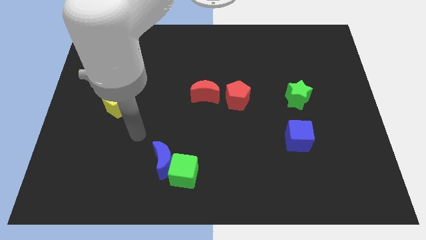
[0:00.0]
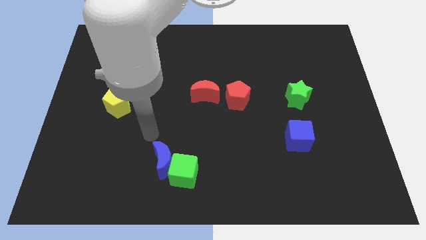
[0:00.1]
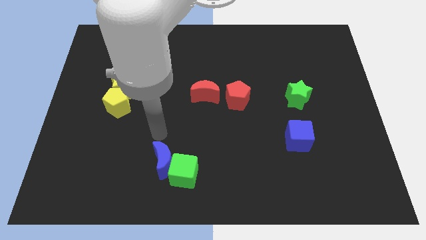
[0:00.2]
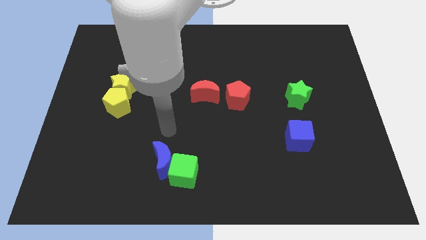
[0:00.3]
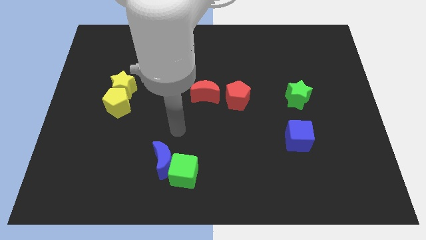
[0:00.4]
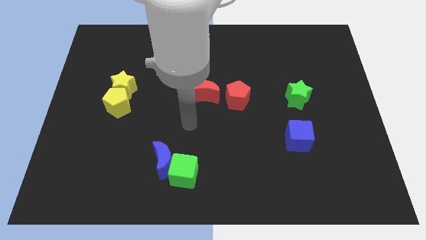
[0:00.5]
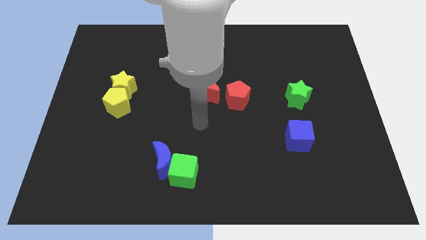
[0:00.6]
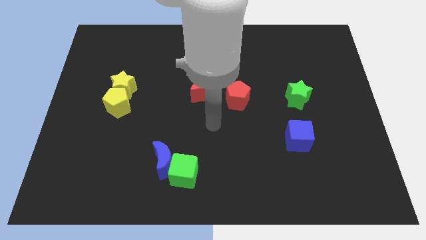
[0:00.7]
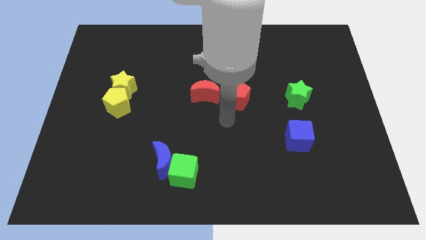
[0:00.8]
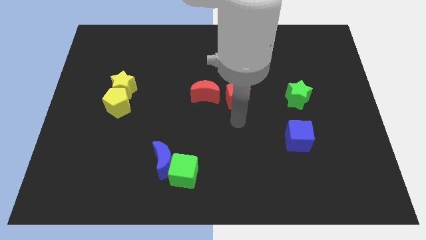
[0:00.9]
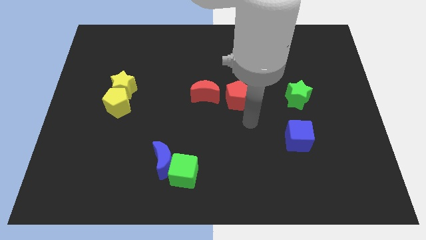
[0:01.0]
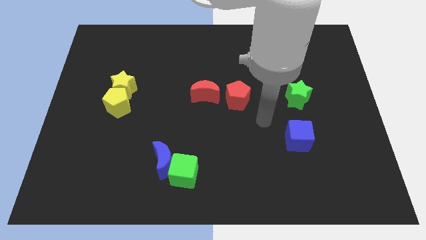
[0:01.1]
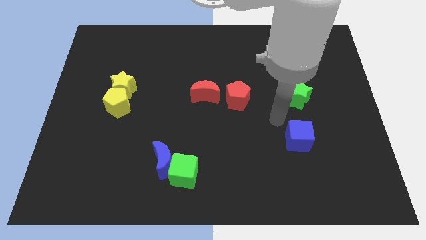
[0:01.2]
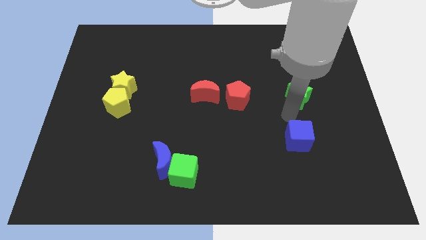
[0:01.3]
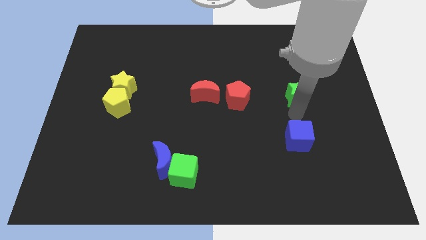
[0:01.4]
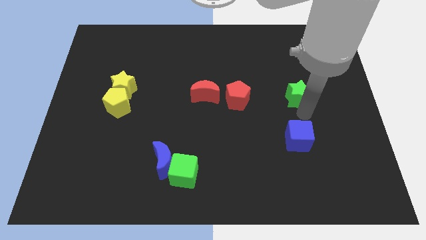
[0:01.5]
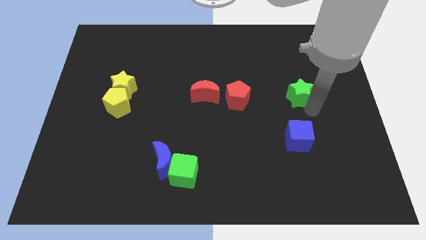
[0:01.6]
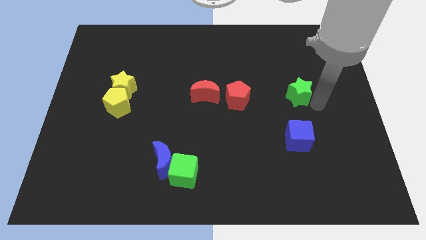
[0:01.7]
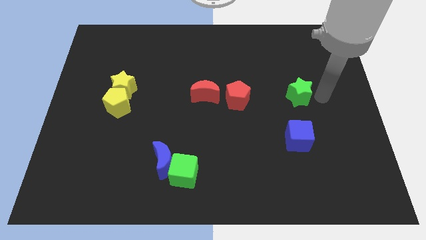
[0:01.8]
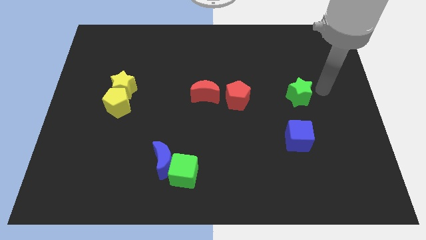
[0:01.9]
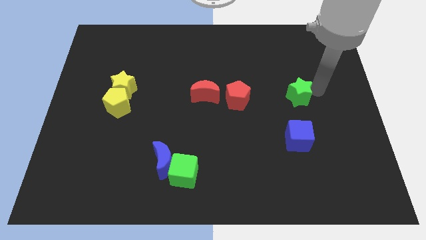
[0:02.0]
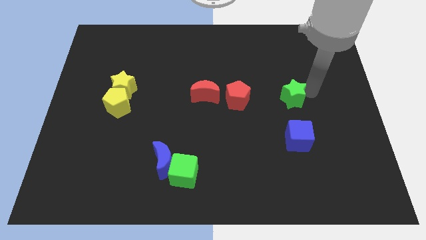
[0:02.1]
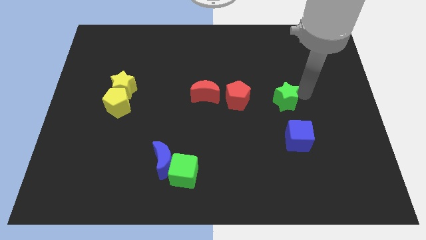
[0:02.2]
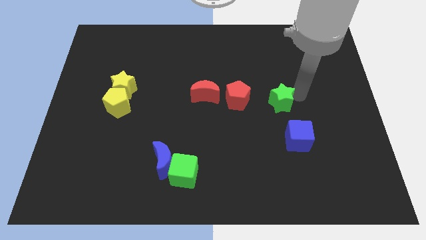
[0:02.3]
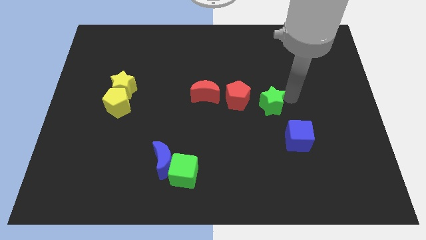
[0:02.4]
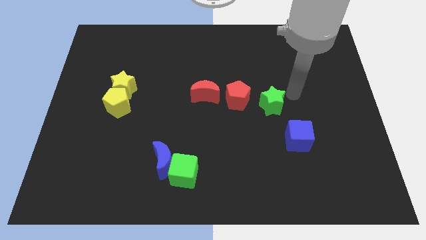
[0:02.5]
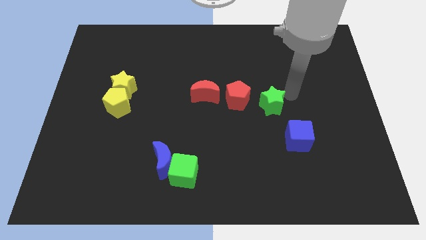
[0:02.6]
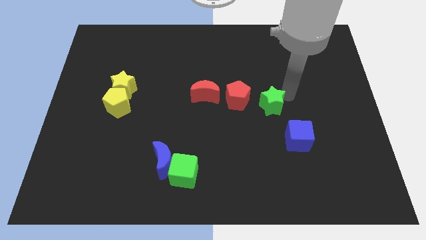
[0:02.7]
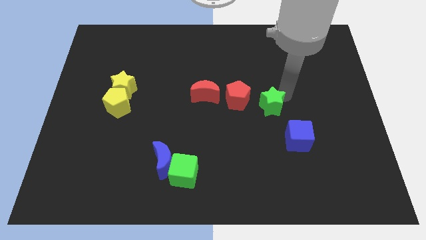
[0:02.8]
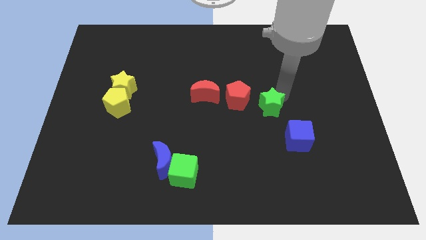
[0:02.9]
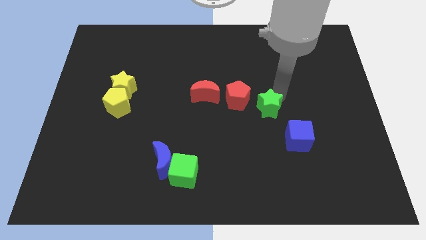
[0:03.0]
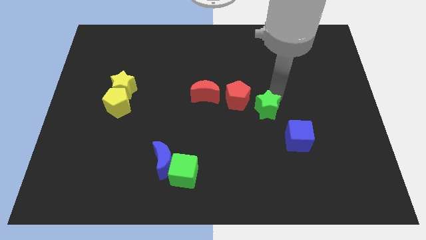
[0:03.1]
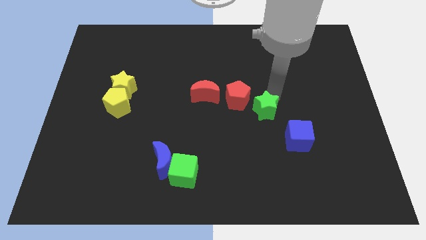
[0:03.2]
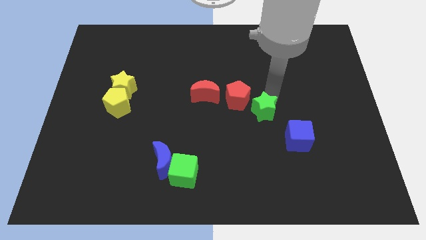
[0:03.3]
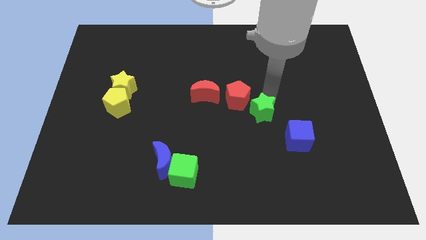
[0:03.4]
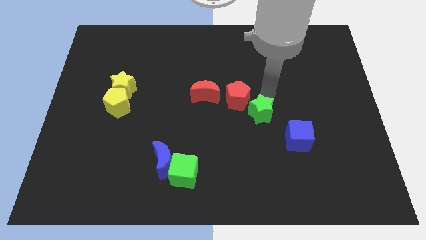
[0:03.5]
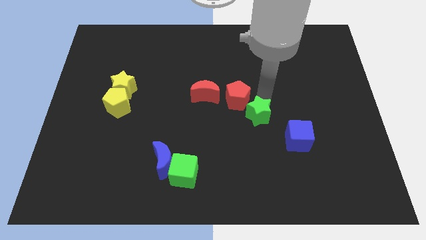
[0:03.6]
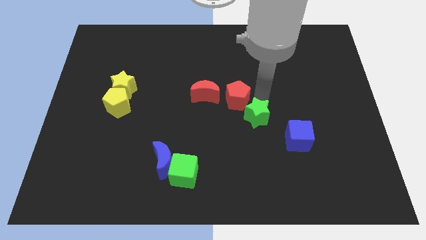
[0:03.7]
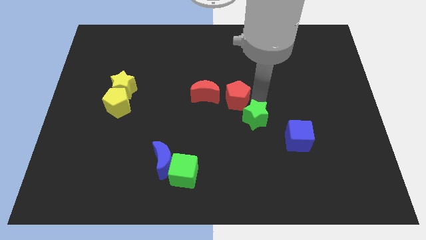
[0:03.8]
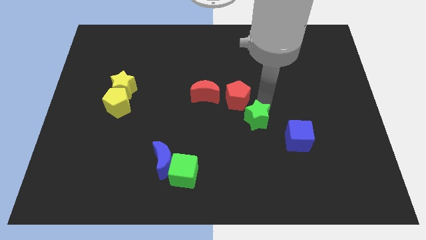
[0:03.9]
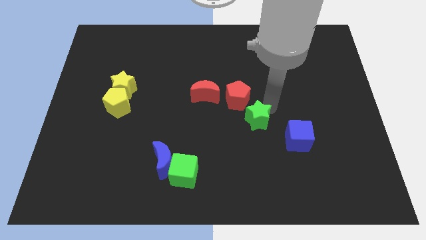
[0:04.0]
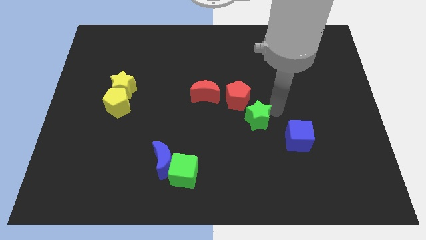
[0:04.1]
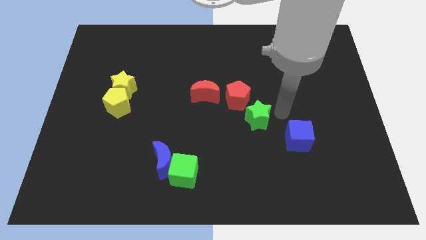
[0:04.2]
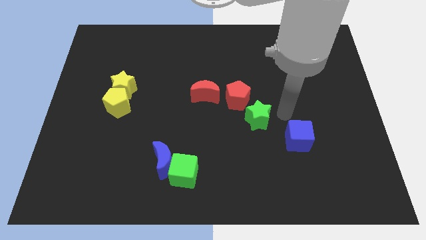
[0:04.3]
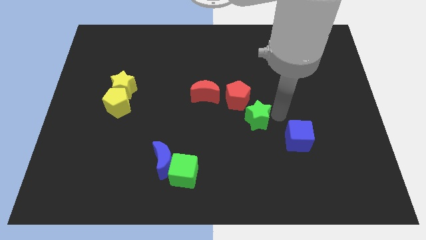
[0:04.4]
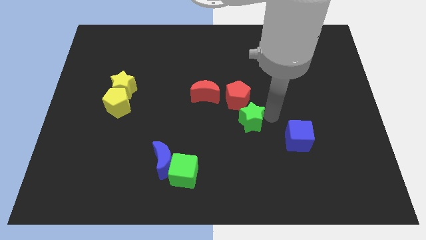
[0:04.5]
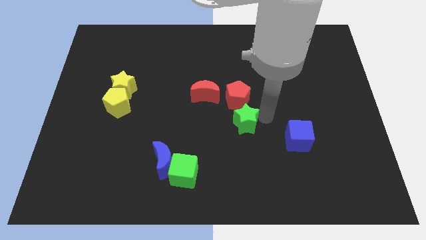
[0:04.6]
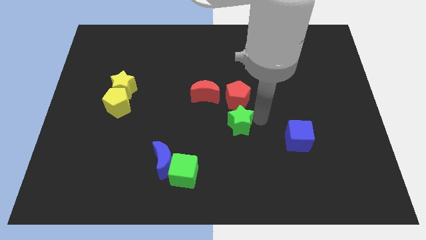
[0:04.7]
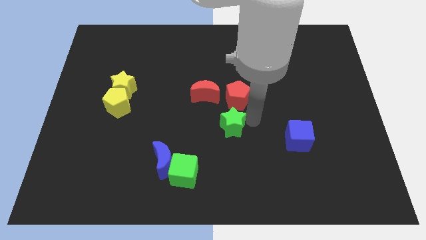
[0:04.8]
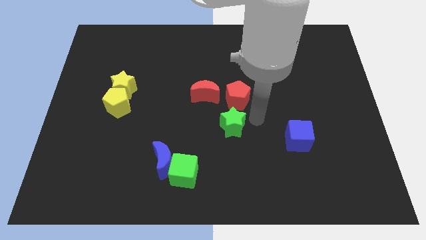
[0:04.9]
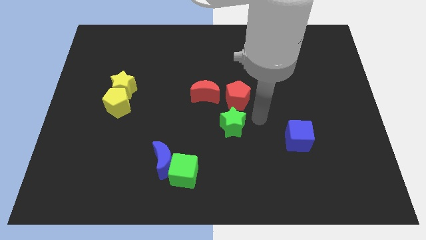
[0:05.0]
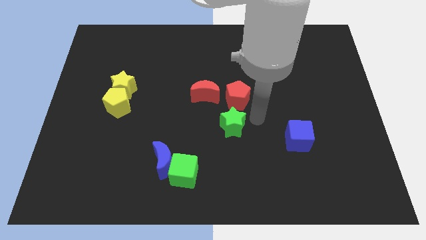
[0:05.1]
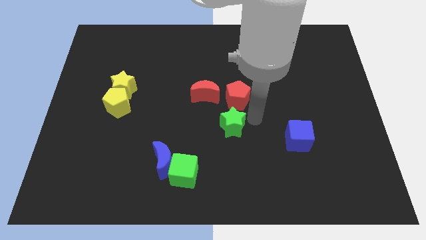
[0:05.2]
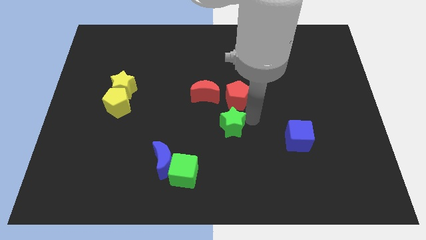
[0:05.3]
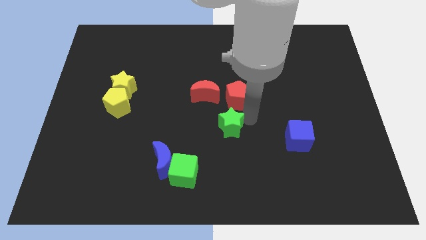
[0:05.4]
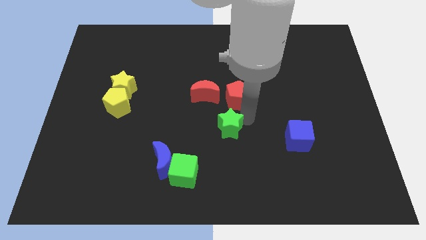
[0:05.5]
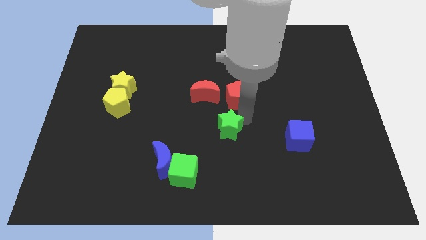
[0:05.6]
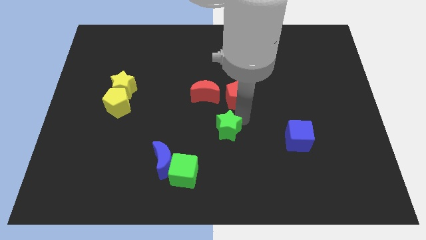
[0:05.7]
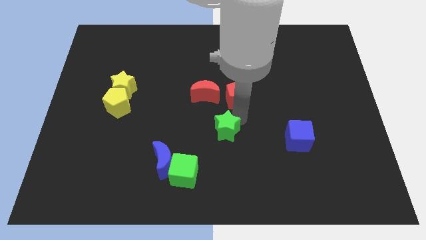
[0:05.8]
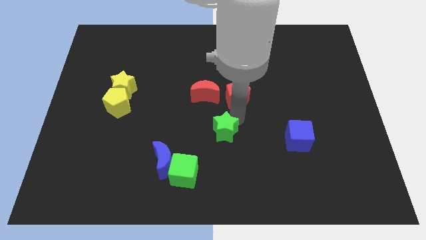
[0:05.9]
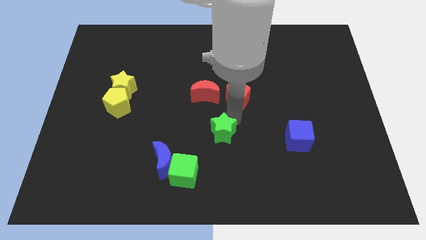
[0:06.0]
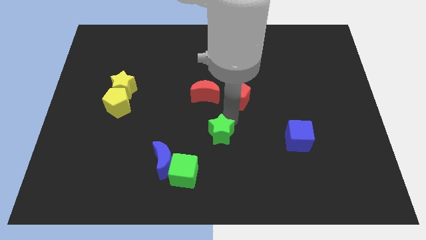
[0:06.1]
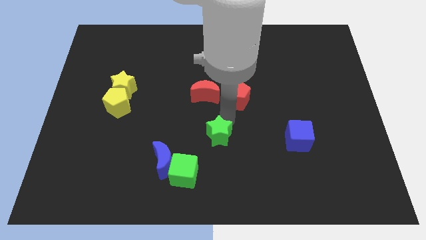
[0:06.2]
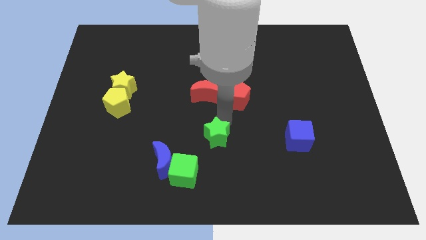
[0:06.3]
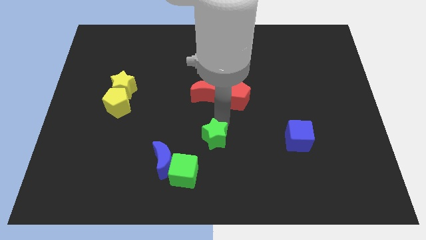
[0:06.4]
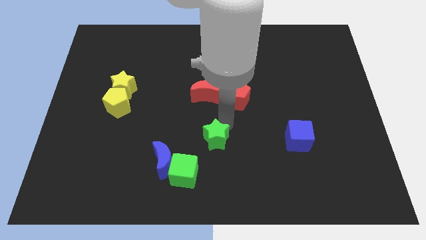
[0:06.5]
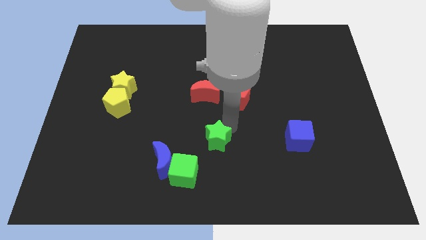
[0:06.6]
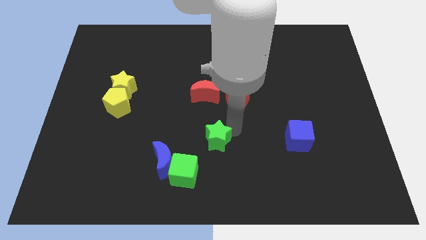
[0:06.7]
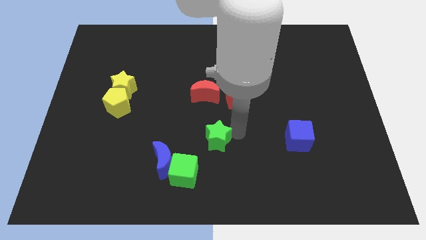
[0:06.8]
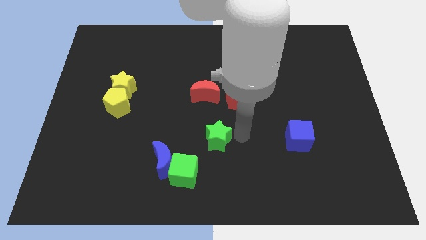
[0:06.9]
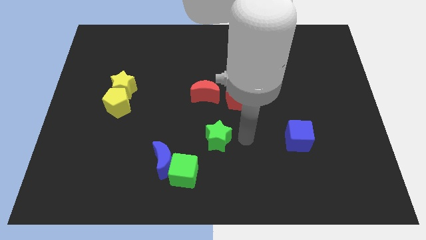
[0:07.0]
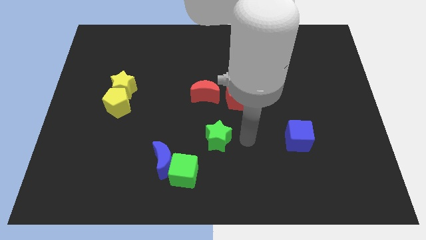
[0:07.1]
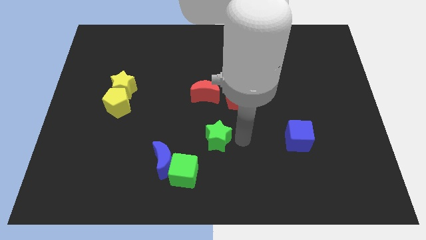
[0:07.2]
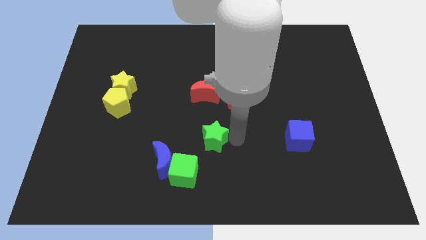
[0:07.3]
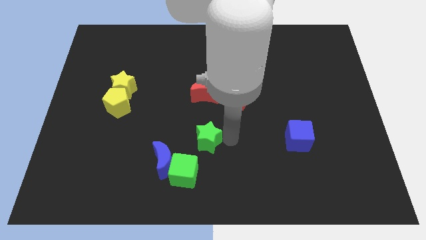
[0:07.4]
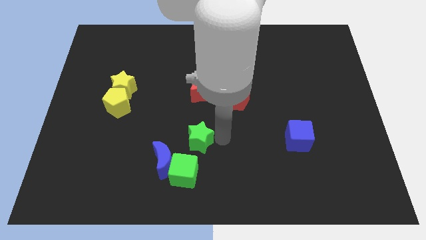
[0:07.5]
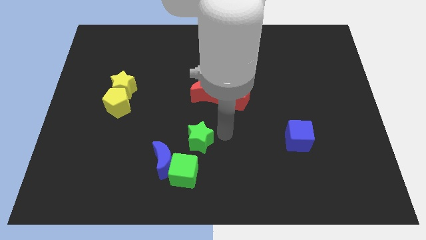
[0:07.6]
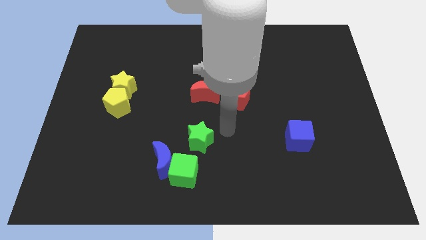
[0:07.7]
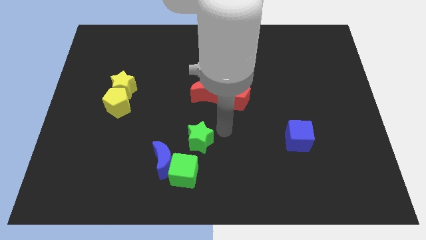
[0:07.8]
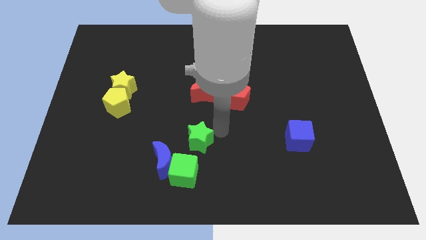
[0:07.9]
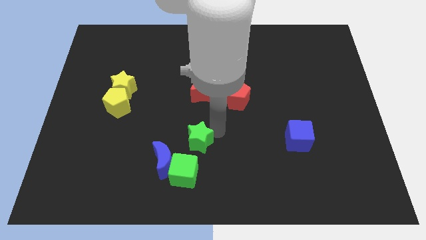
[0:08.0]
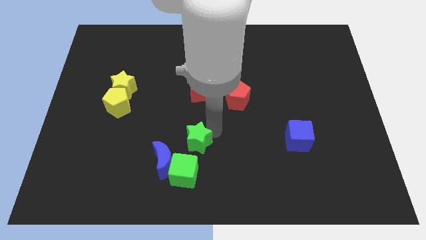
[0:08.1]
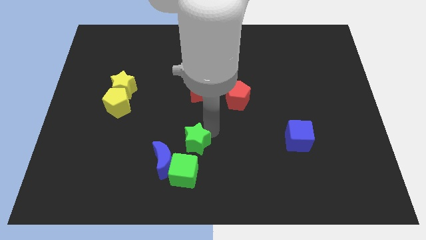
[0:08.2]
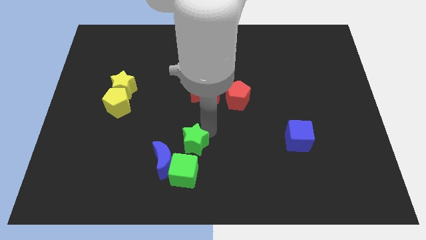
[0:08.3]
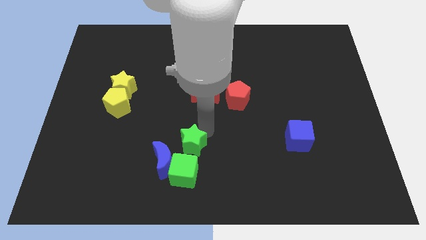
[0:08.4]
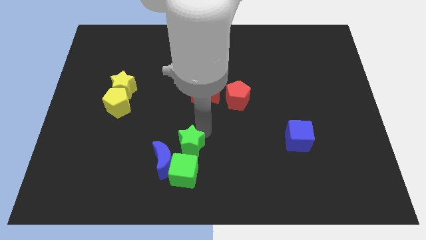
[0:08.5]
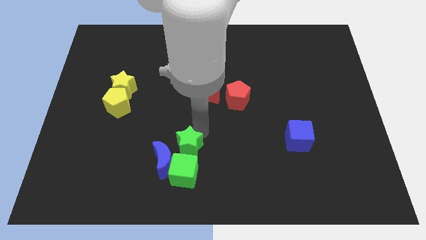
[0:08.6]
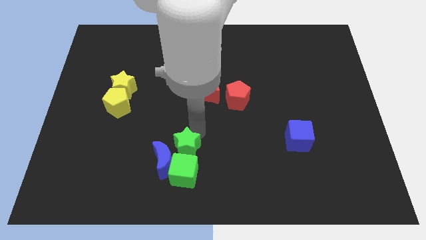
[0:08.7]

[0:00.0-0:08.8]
put the green star next to the blue moon
